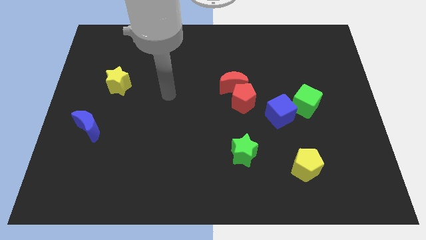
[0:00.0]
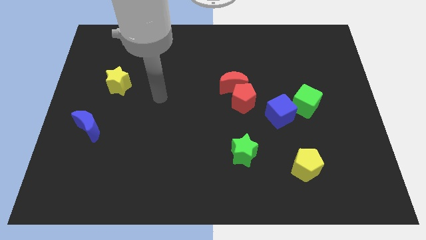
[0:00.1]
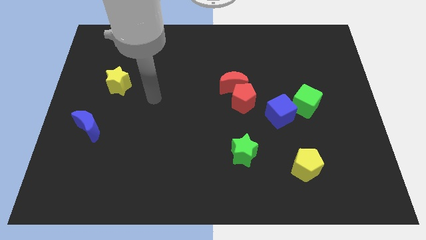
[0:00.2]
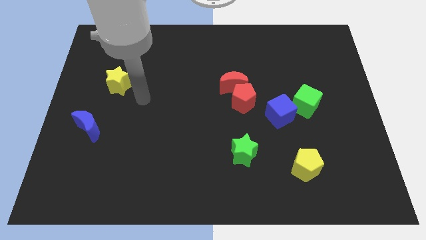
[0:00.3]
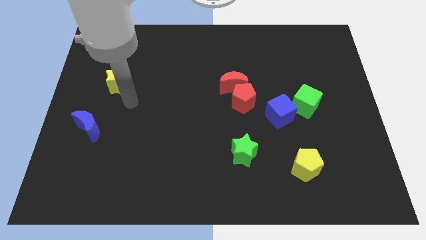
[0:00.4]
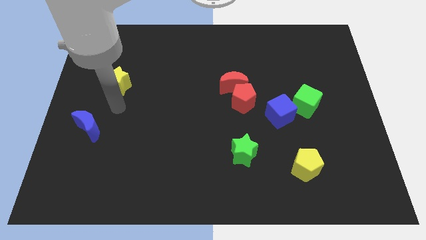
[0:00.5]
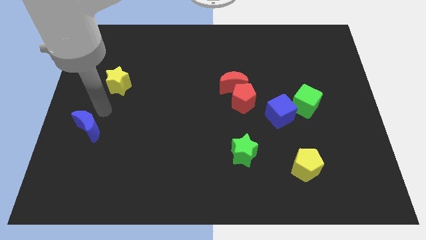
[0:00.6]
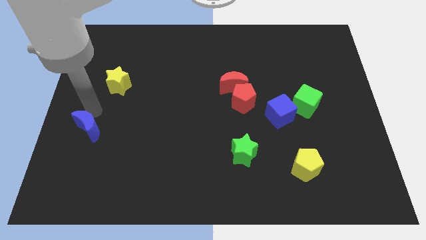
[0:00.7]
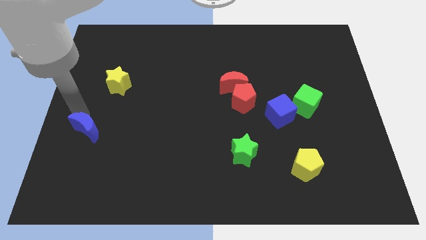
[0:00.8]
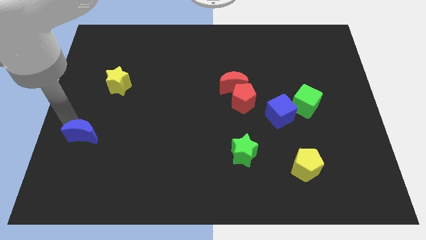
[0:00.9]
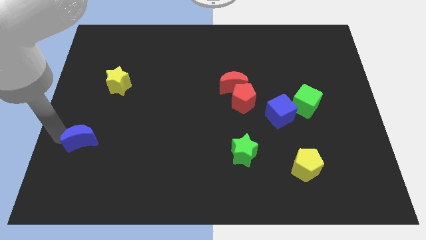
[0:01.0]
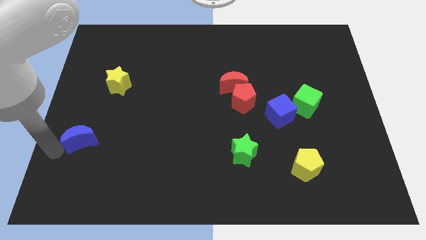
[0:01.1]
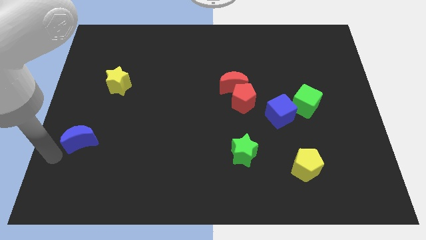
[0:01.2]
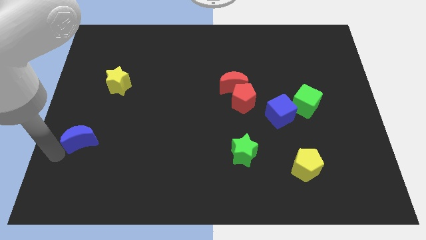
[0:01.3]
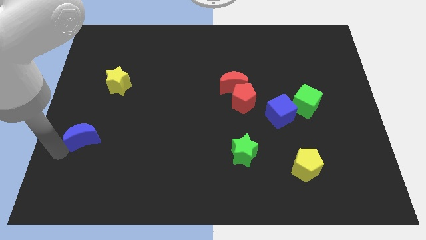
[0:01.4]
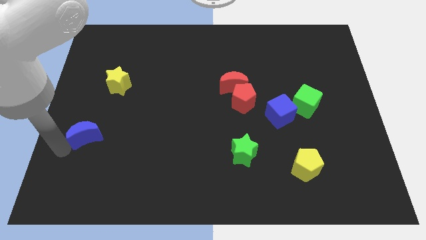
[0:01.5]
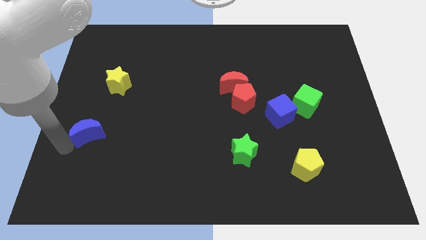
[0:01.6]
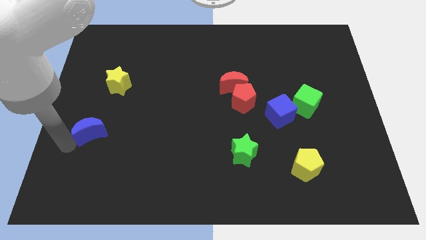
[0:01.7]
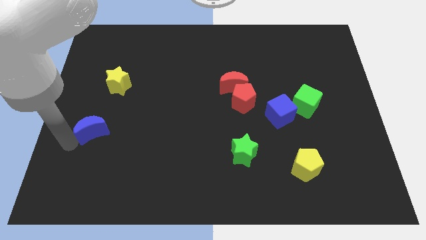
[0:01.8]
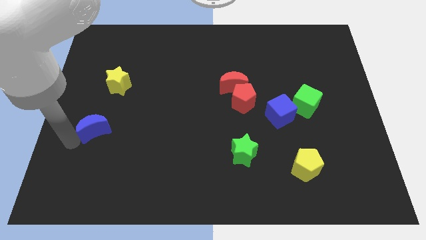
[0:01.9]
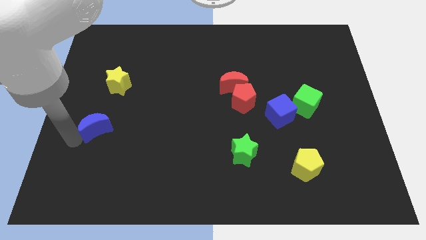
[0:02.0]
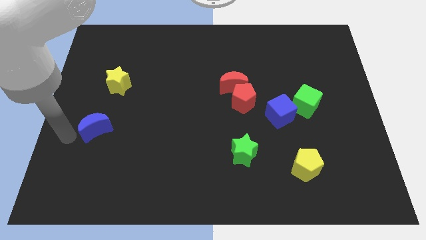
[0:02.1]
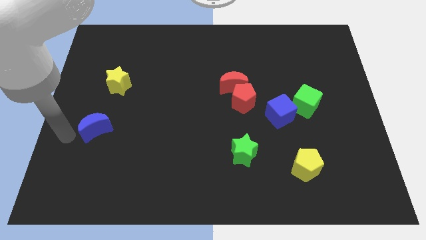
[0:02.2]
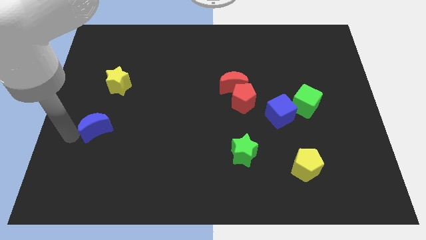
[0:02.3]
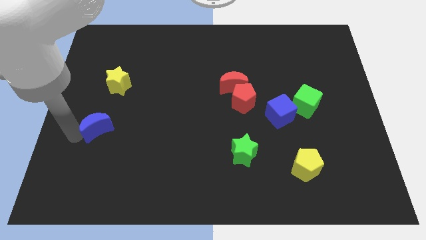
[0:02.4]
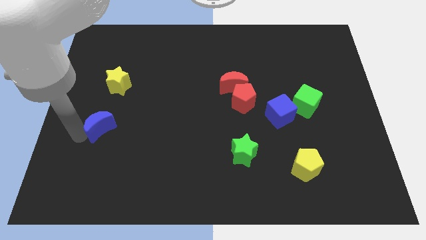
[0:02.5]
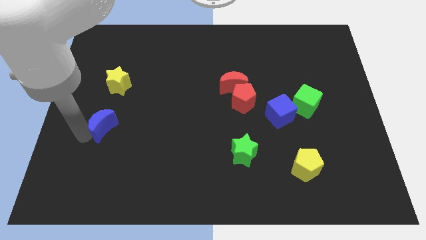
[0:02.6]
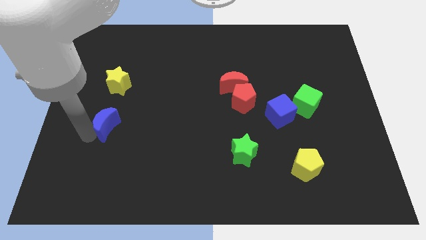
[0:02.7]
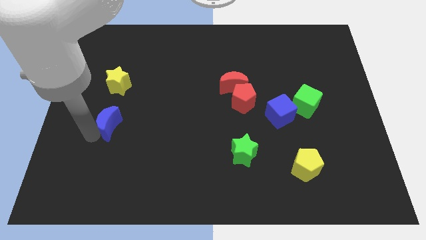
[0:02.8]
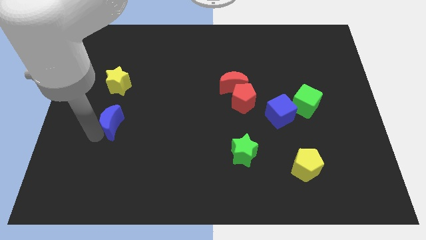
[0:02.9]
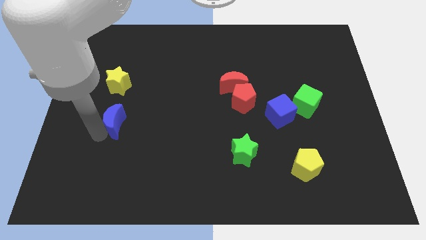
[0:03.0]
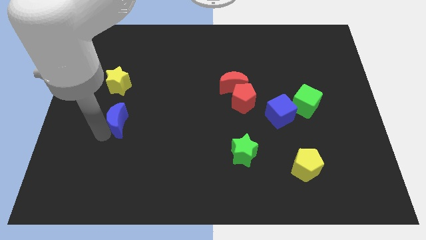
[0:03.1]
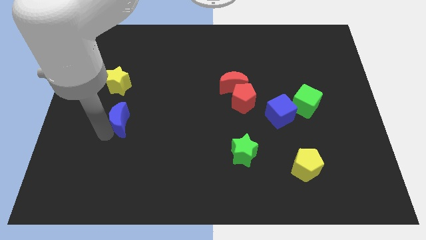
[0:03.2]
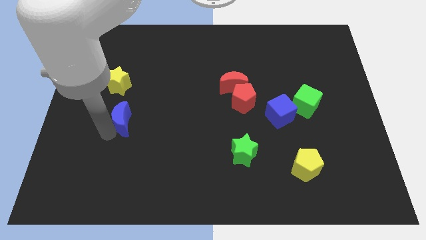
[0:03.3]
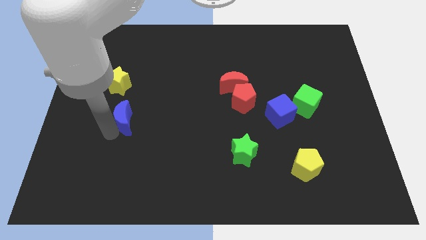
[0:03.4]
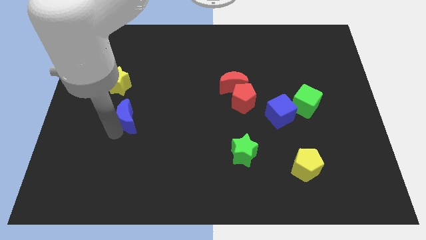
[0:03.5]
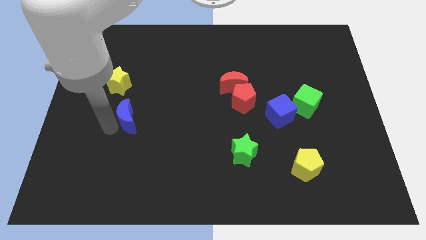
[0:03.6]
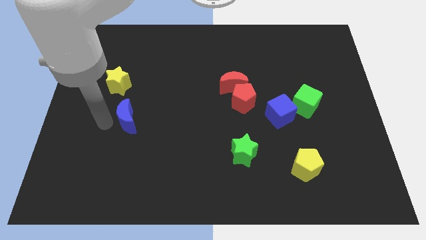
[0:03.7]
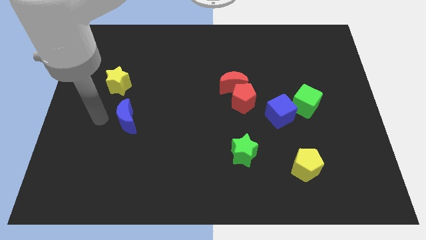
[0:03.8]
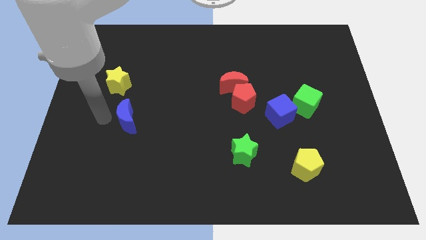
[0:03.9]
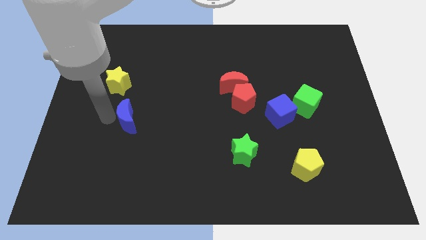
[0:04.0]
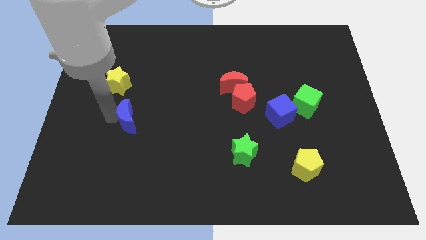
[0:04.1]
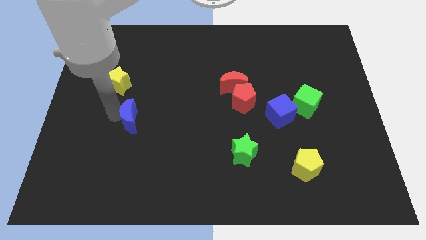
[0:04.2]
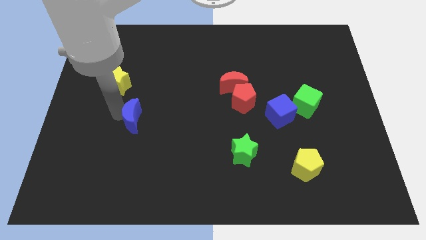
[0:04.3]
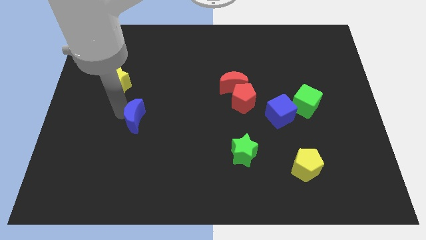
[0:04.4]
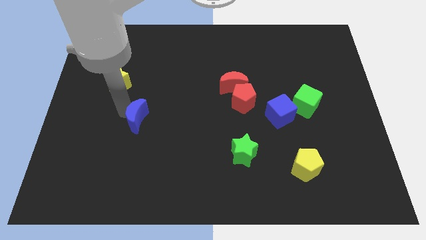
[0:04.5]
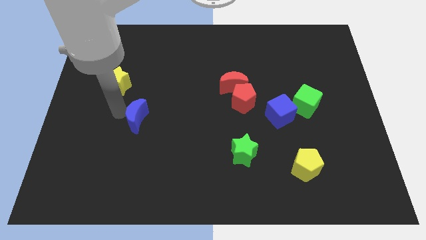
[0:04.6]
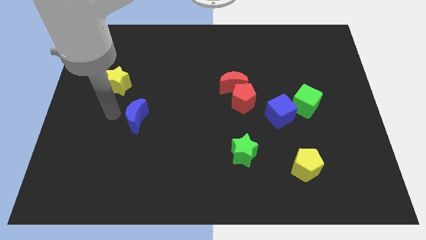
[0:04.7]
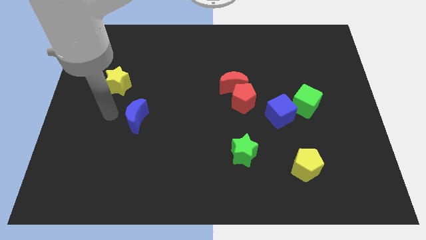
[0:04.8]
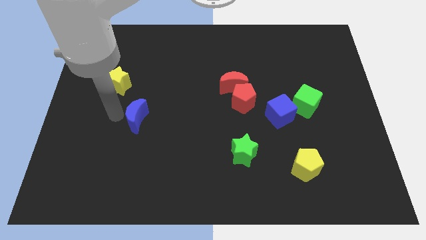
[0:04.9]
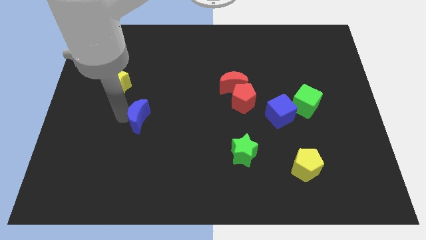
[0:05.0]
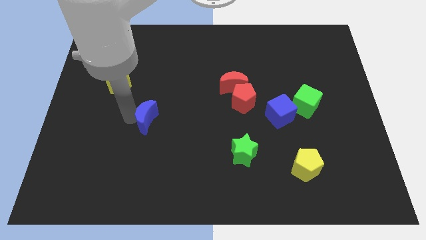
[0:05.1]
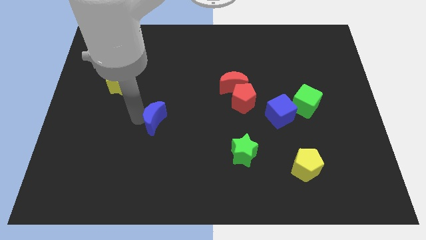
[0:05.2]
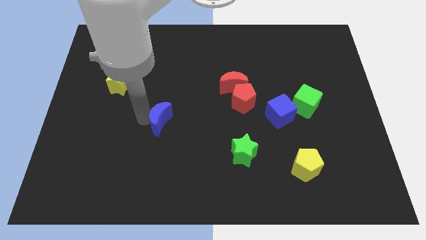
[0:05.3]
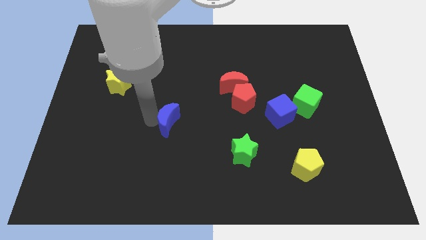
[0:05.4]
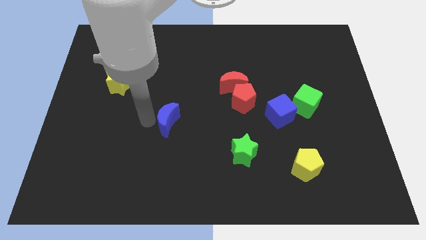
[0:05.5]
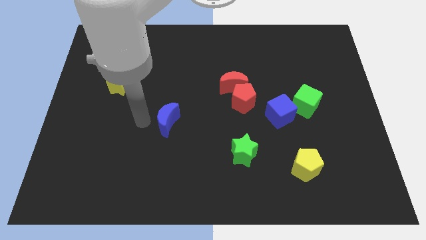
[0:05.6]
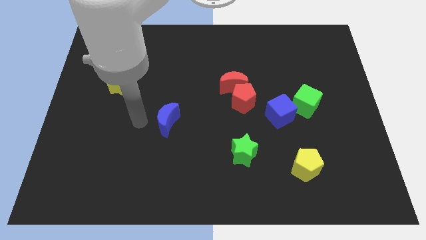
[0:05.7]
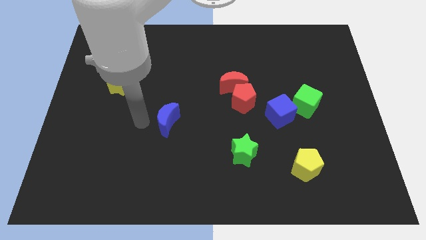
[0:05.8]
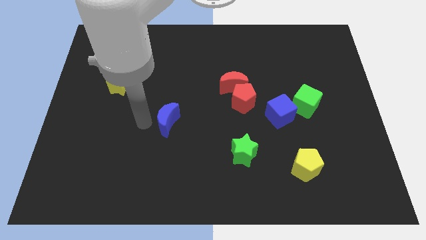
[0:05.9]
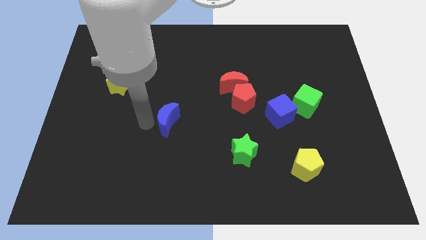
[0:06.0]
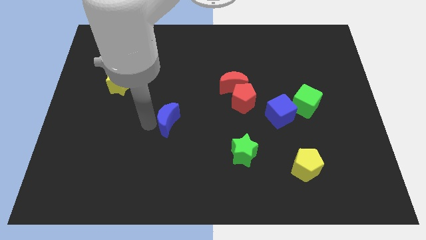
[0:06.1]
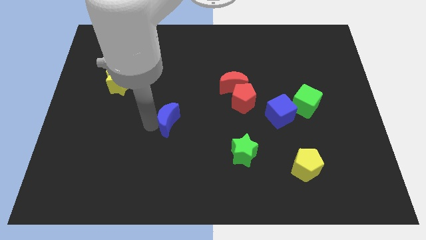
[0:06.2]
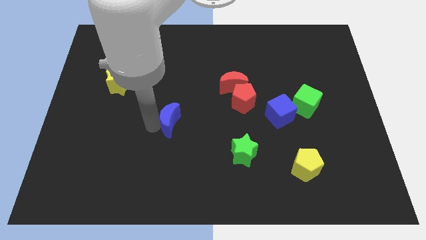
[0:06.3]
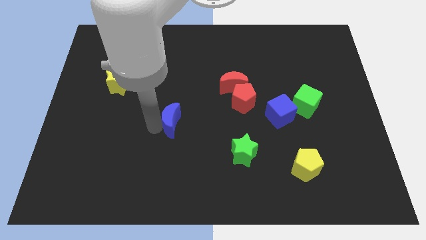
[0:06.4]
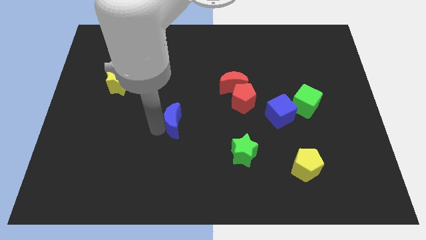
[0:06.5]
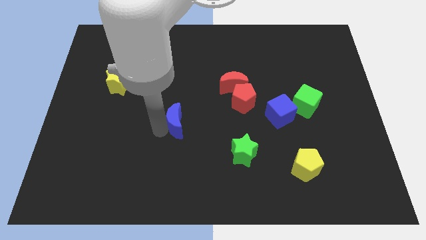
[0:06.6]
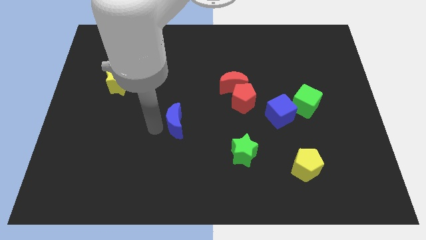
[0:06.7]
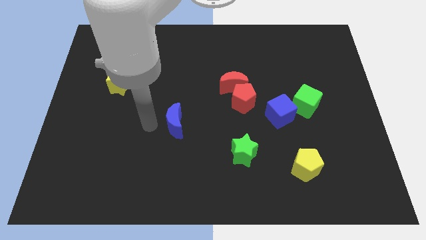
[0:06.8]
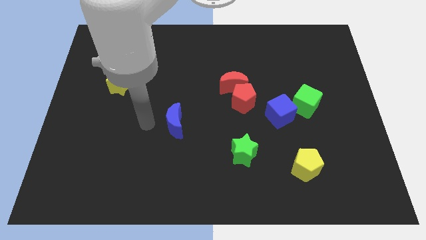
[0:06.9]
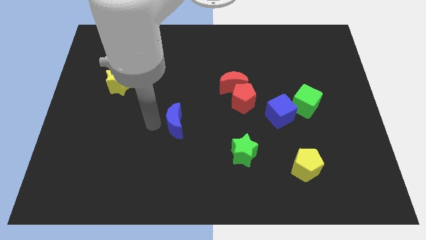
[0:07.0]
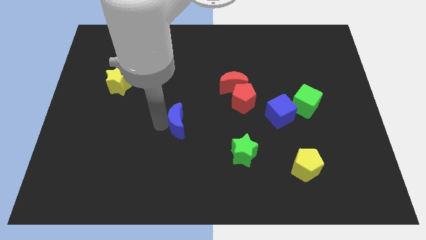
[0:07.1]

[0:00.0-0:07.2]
slide the blue moon to the right

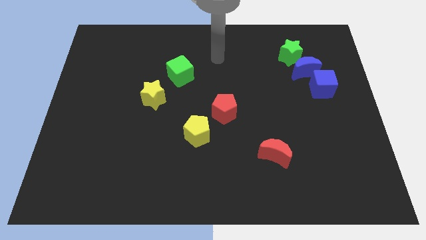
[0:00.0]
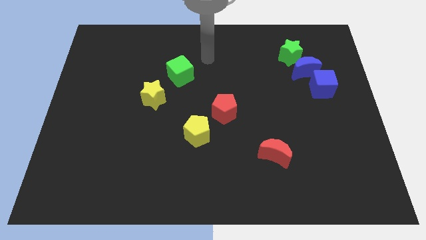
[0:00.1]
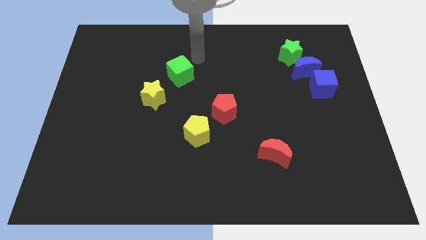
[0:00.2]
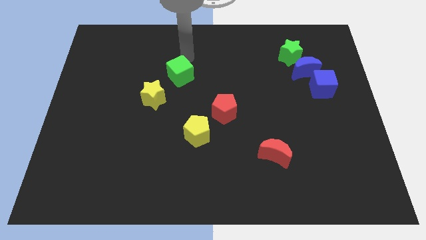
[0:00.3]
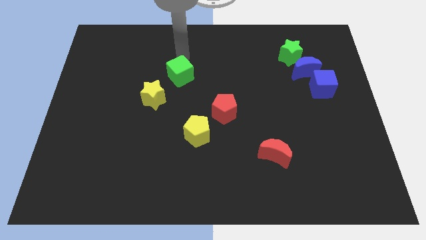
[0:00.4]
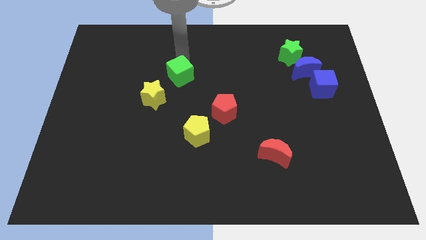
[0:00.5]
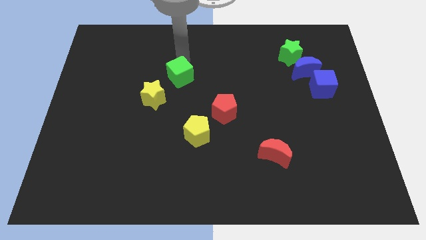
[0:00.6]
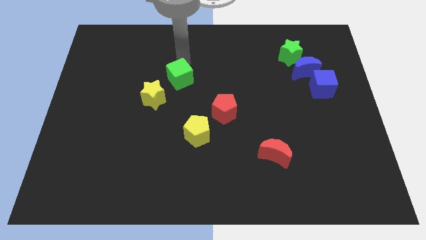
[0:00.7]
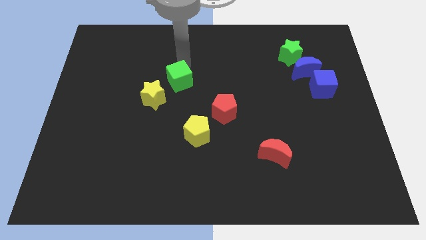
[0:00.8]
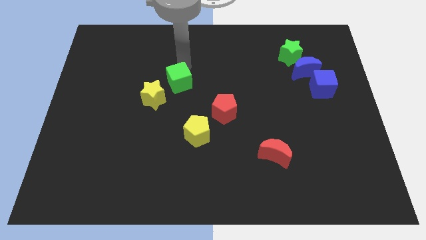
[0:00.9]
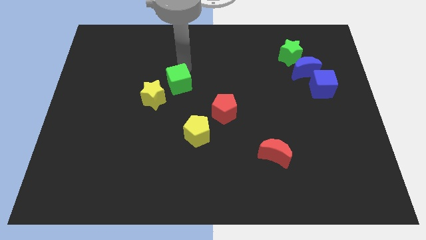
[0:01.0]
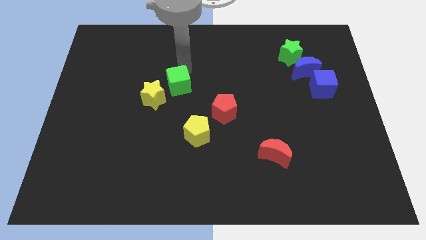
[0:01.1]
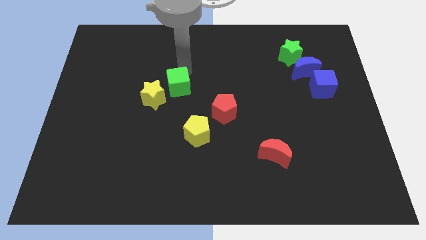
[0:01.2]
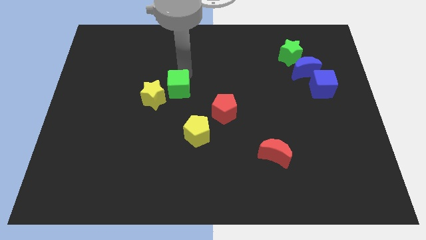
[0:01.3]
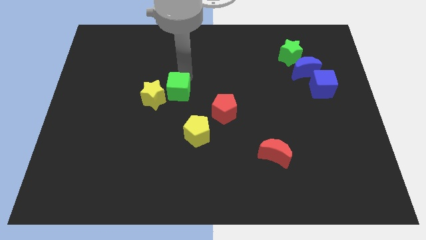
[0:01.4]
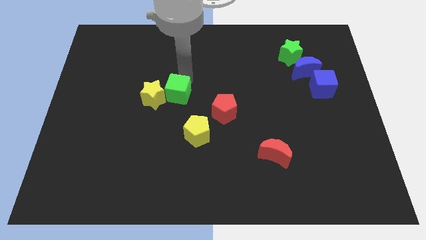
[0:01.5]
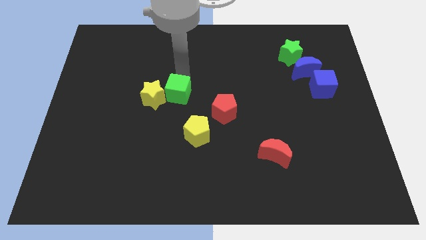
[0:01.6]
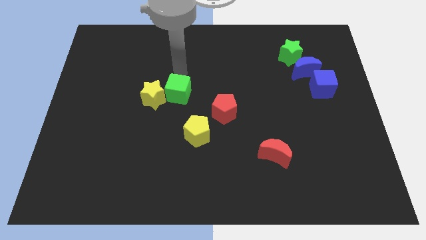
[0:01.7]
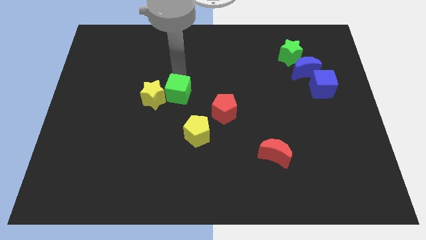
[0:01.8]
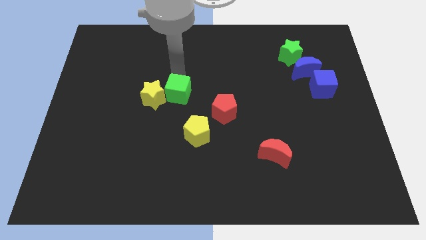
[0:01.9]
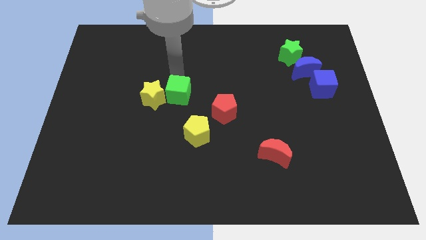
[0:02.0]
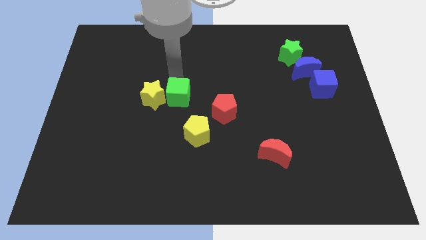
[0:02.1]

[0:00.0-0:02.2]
slightly slide the green cube down
